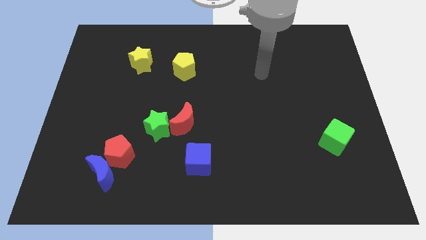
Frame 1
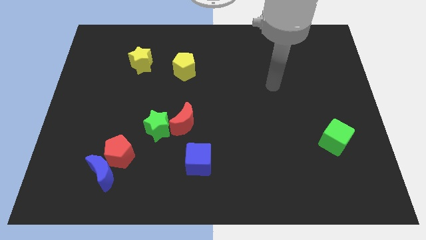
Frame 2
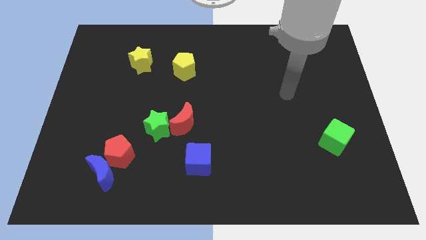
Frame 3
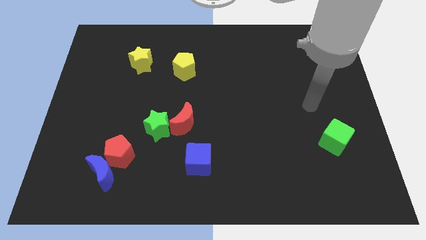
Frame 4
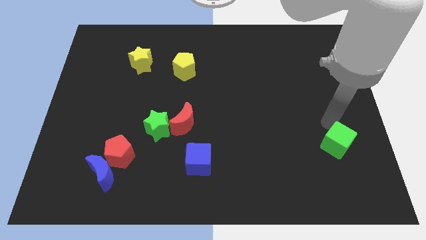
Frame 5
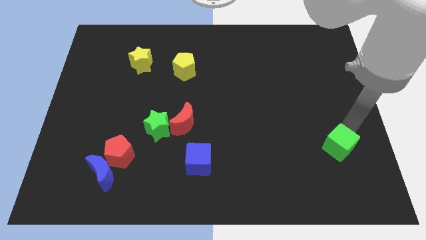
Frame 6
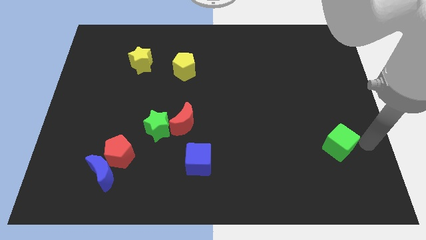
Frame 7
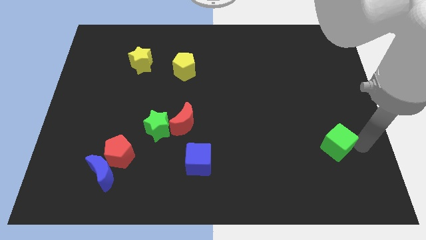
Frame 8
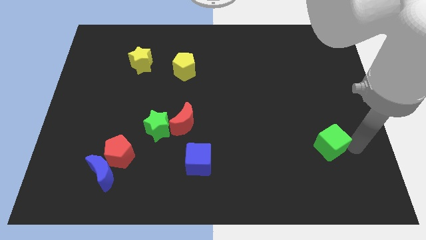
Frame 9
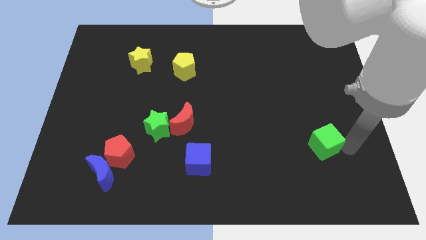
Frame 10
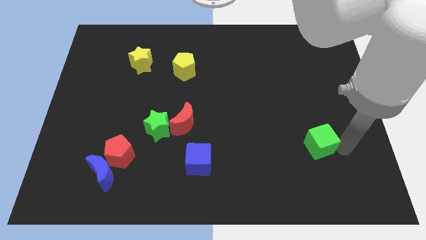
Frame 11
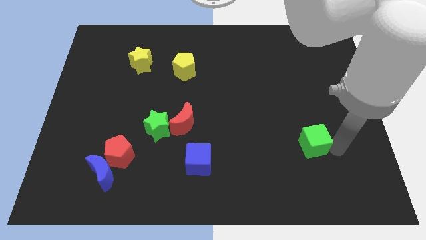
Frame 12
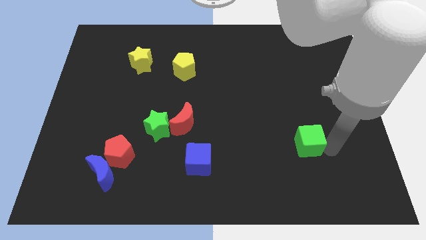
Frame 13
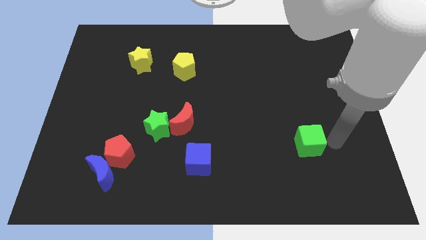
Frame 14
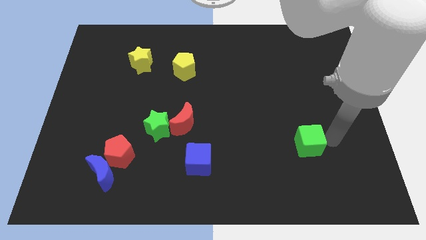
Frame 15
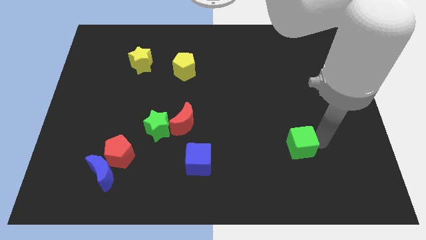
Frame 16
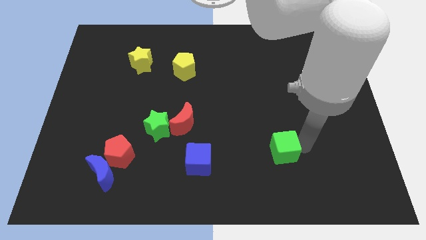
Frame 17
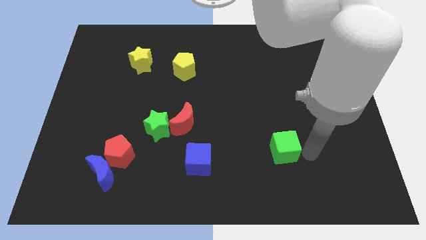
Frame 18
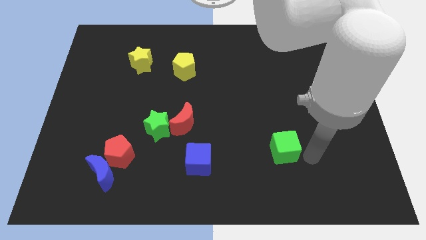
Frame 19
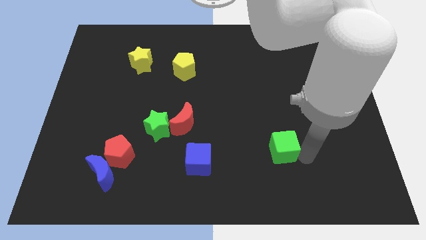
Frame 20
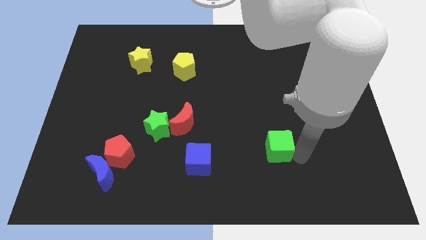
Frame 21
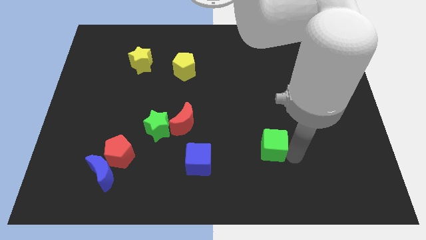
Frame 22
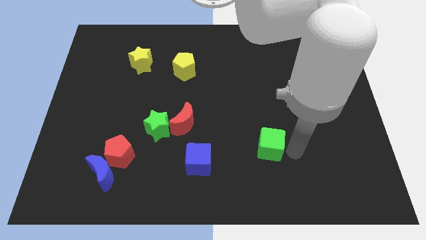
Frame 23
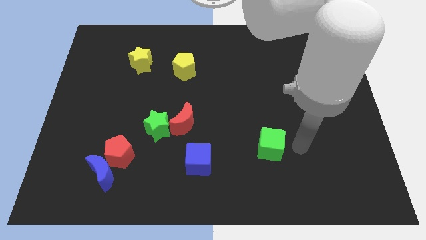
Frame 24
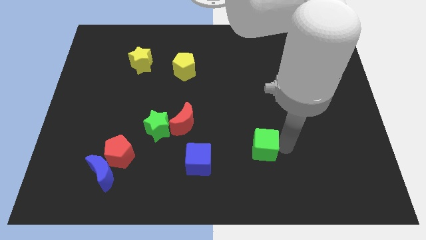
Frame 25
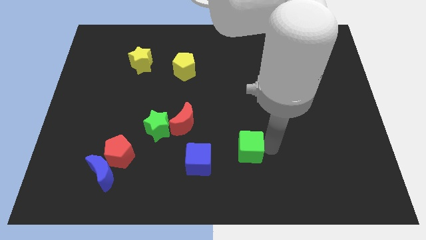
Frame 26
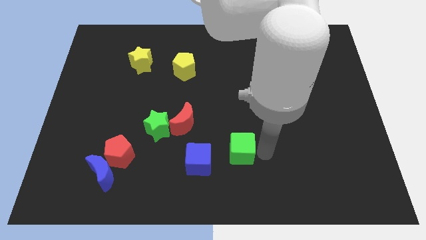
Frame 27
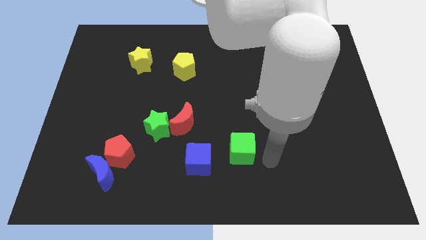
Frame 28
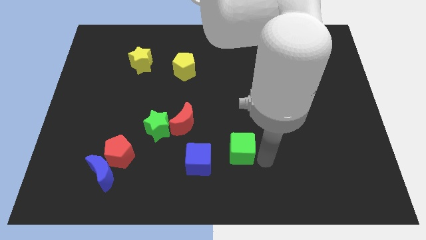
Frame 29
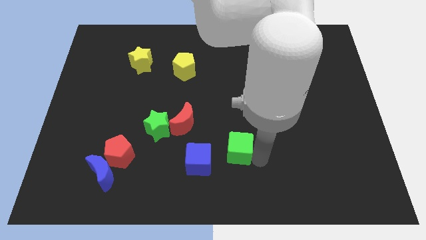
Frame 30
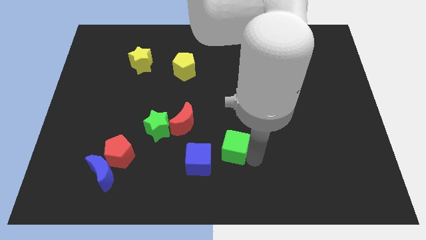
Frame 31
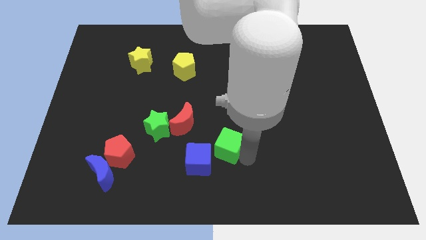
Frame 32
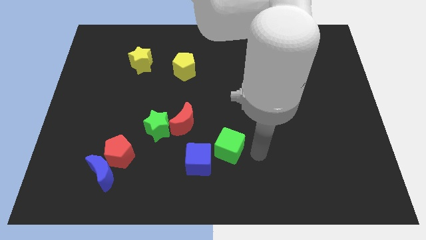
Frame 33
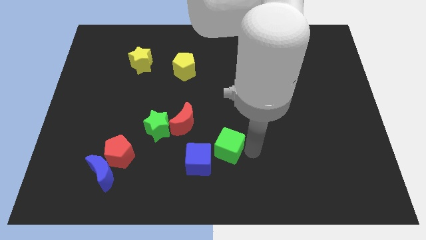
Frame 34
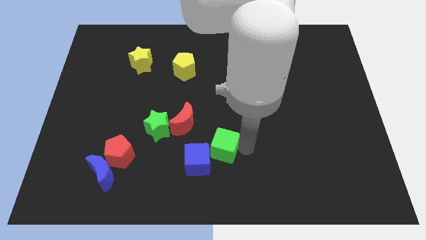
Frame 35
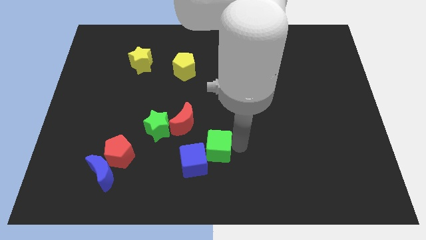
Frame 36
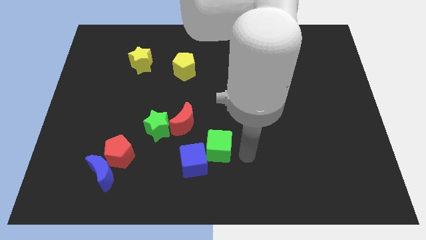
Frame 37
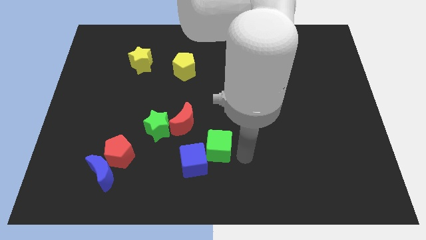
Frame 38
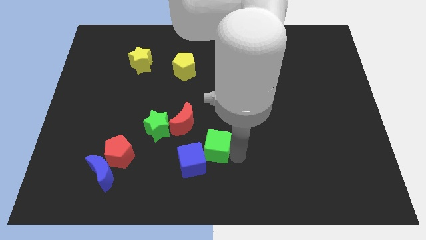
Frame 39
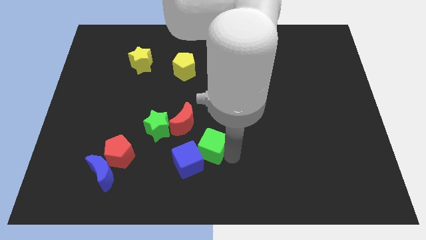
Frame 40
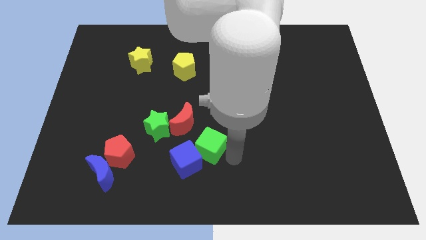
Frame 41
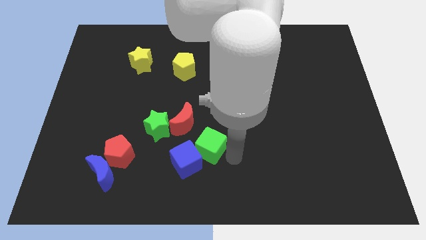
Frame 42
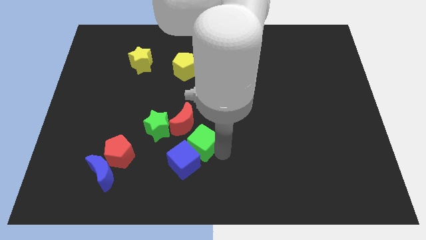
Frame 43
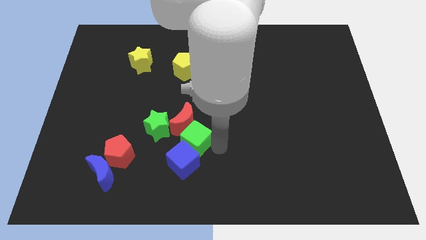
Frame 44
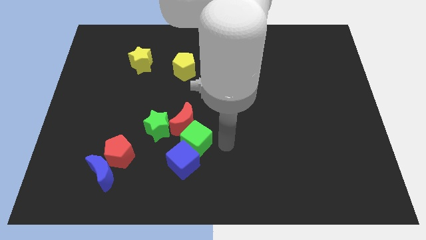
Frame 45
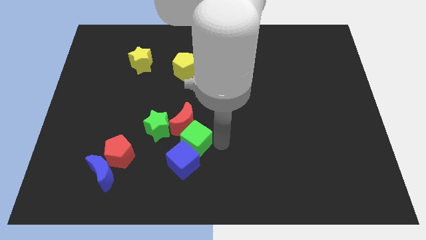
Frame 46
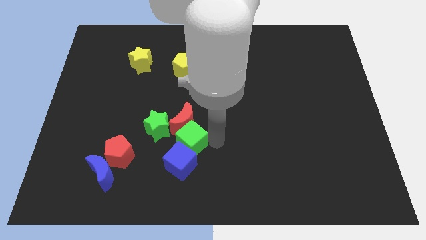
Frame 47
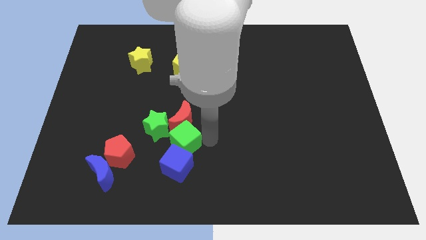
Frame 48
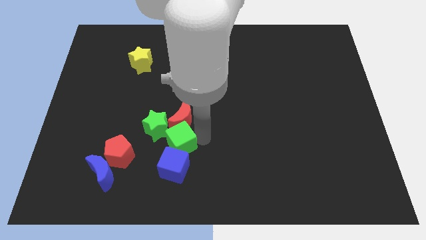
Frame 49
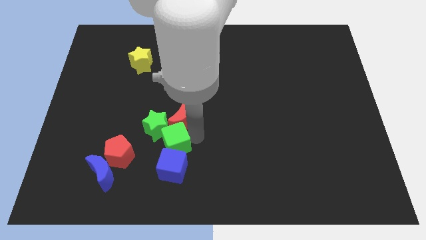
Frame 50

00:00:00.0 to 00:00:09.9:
move the green cube next to the green star

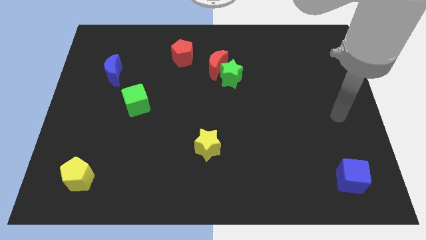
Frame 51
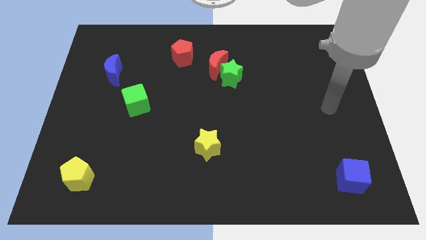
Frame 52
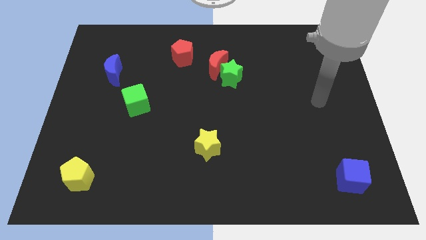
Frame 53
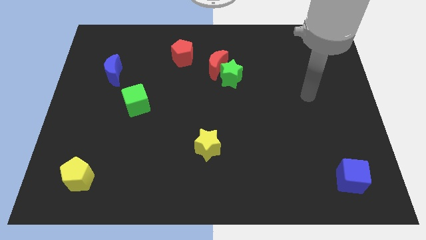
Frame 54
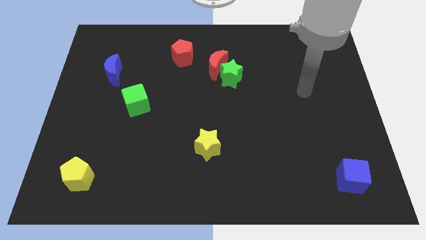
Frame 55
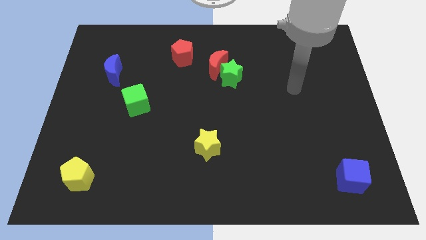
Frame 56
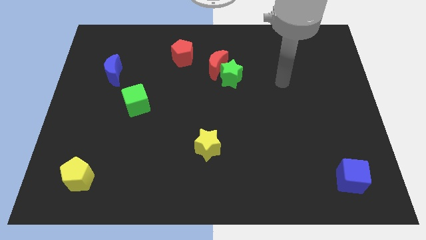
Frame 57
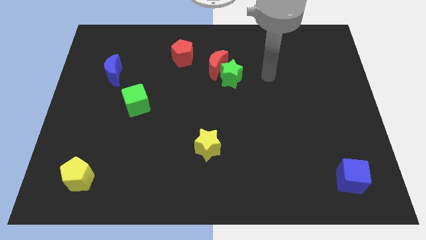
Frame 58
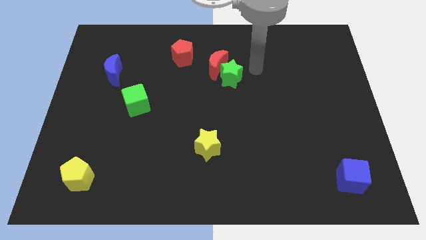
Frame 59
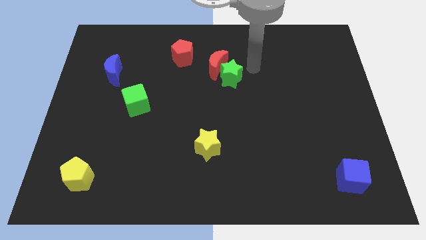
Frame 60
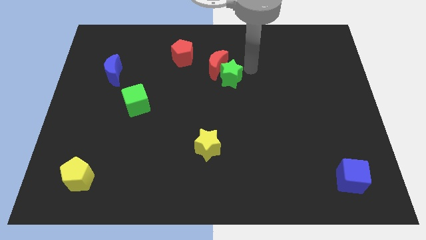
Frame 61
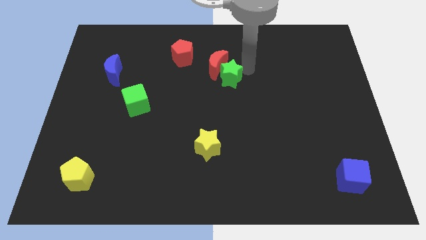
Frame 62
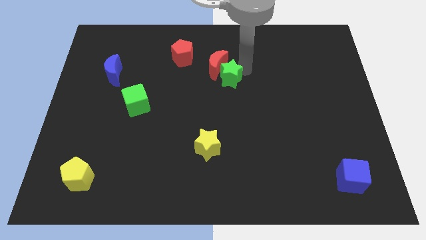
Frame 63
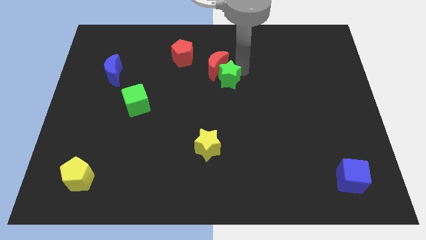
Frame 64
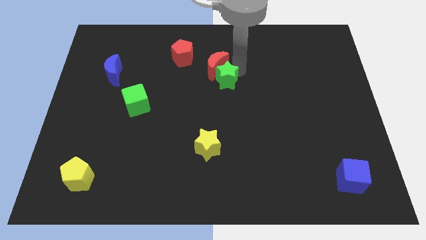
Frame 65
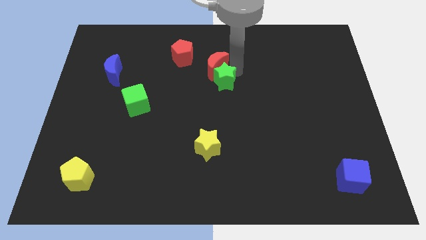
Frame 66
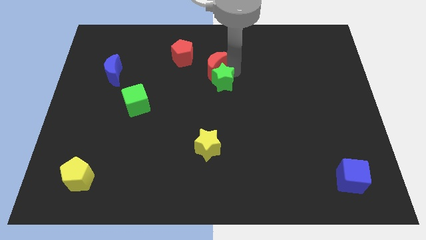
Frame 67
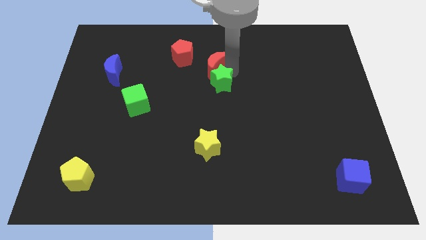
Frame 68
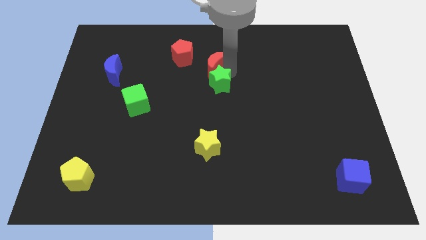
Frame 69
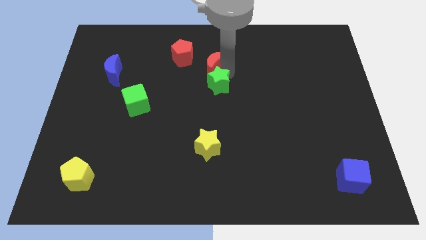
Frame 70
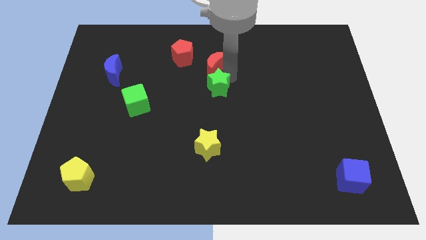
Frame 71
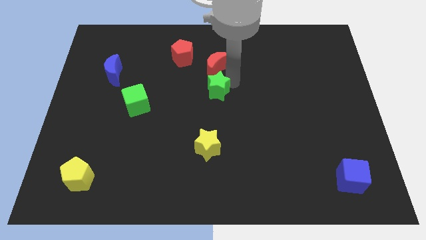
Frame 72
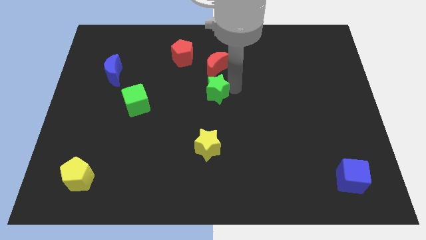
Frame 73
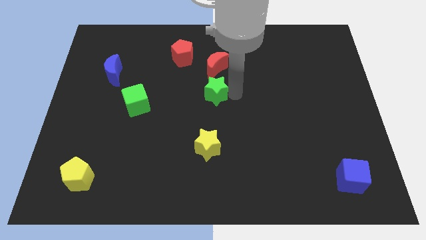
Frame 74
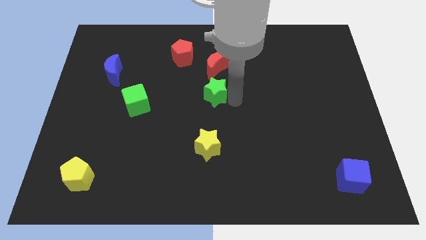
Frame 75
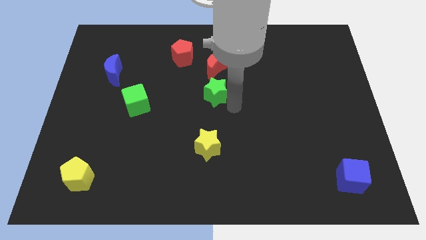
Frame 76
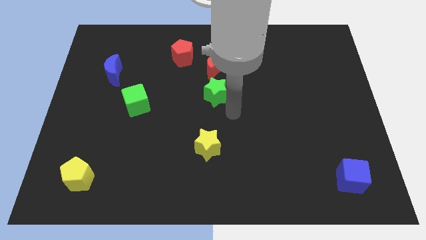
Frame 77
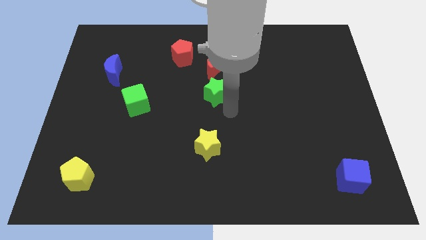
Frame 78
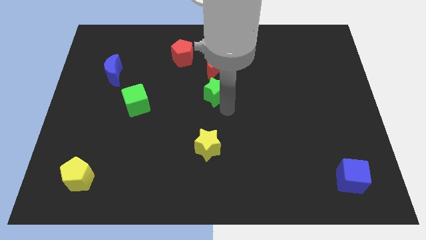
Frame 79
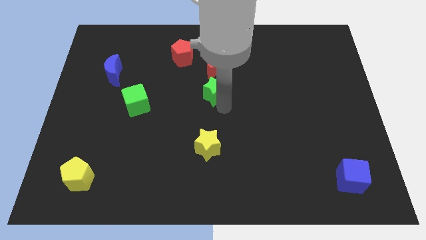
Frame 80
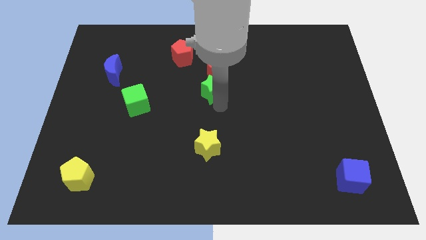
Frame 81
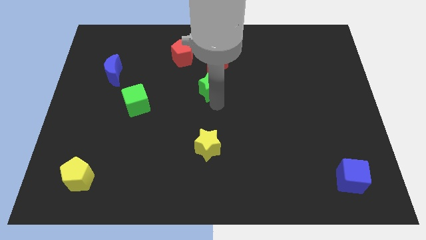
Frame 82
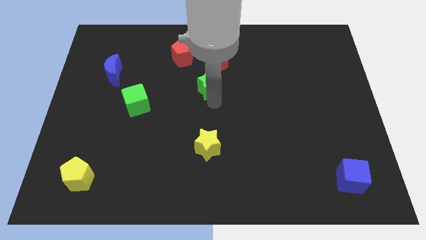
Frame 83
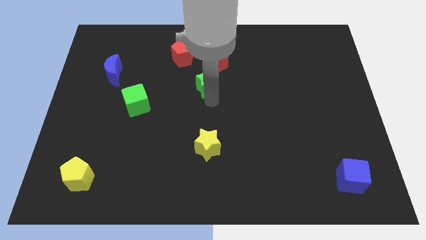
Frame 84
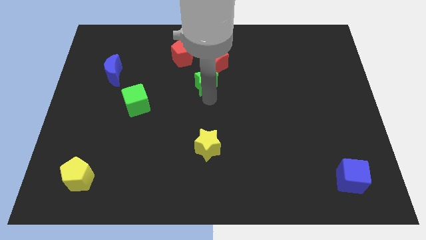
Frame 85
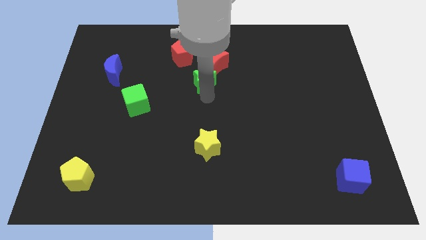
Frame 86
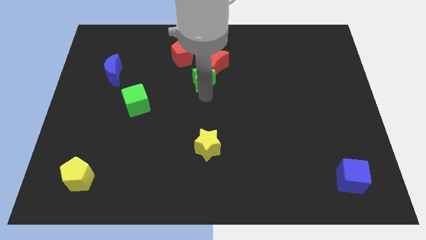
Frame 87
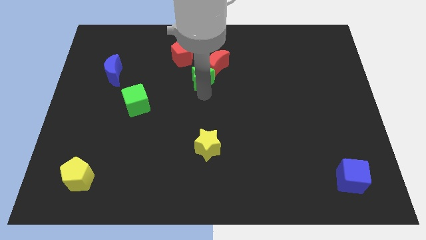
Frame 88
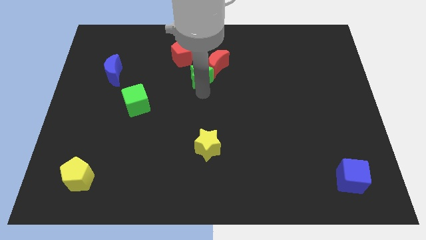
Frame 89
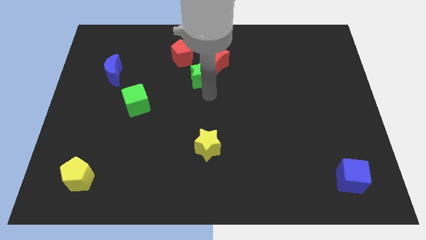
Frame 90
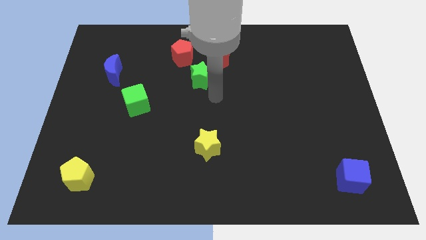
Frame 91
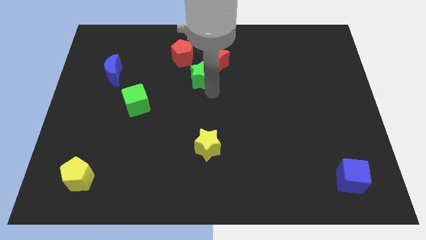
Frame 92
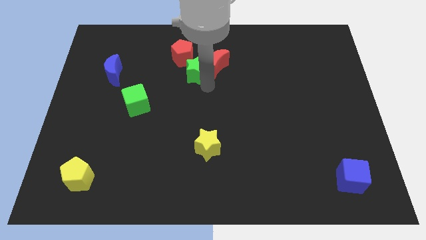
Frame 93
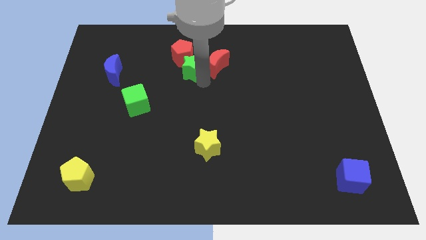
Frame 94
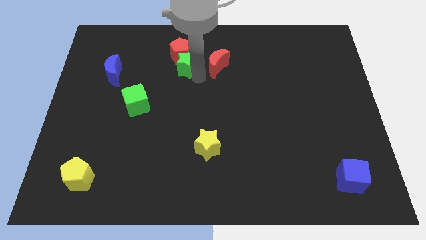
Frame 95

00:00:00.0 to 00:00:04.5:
move the green star to the red pentagon
